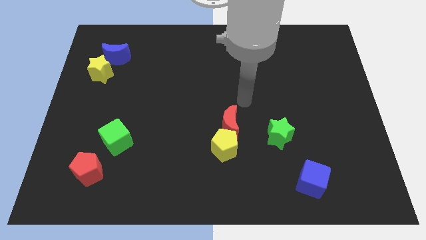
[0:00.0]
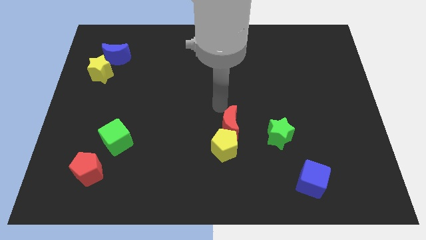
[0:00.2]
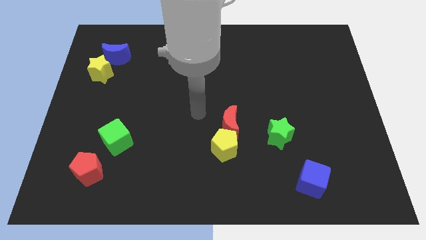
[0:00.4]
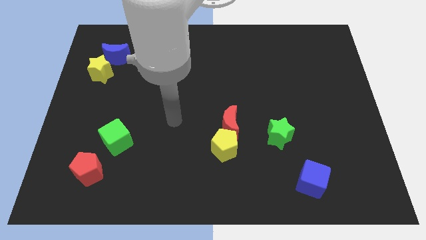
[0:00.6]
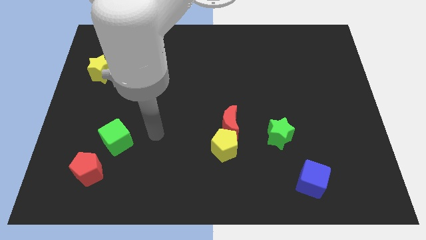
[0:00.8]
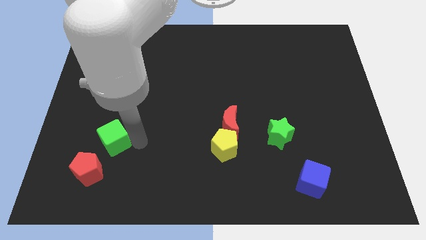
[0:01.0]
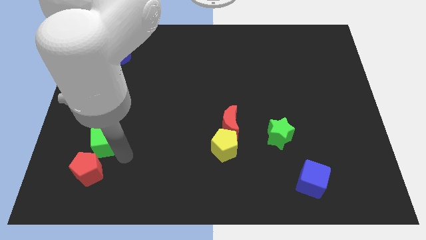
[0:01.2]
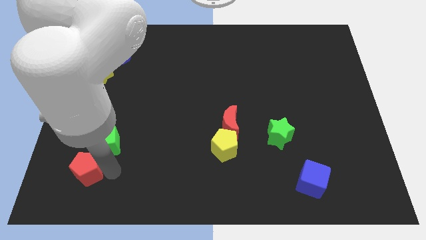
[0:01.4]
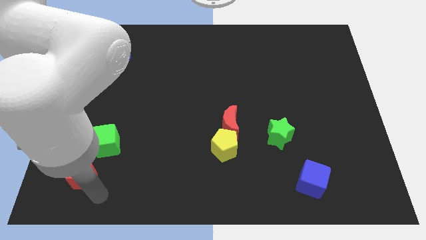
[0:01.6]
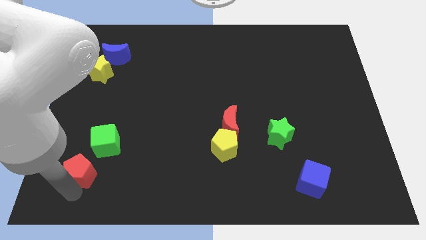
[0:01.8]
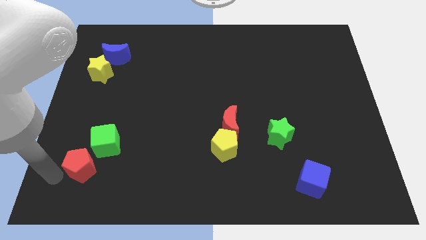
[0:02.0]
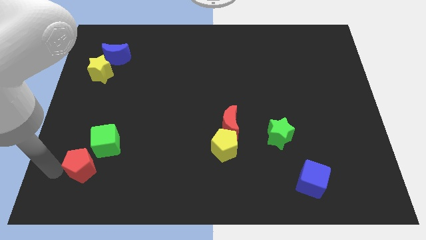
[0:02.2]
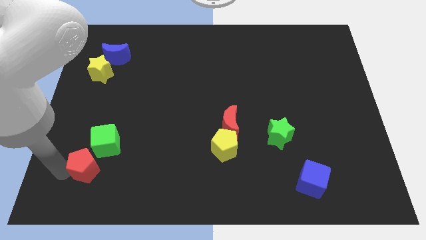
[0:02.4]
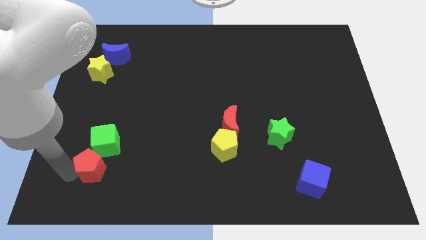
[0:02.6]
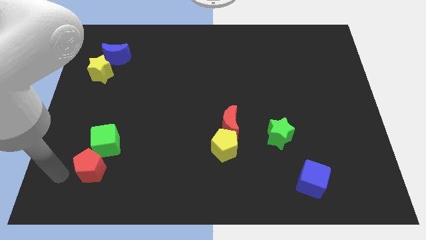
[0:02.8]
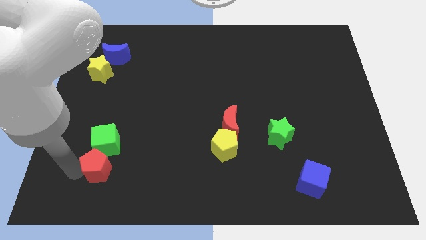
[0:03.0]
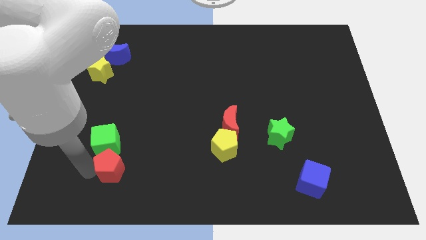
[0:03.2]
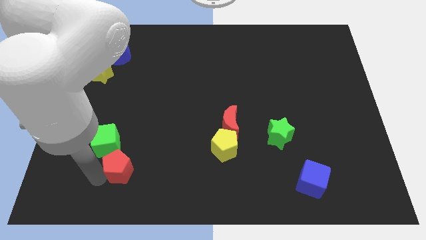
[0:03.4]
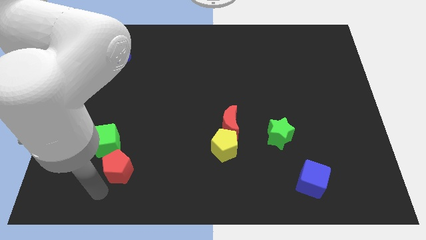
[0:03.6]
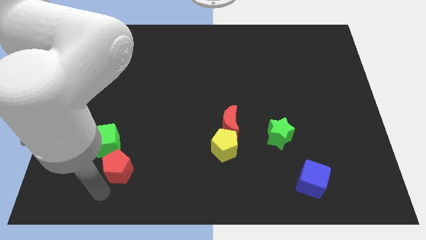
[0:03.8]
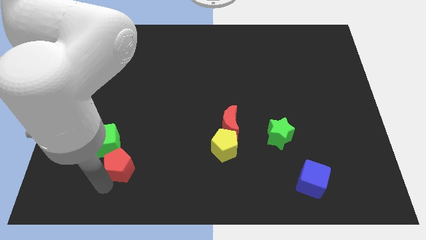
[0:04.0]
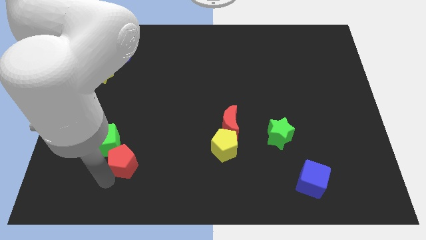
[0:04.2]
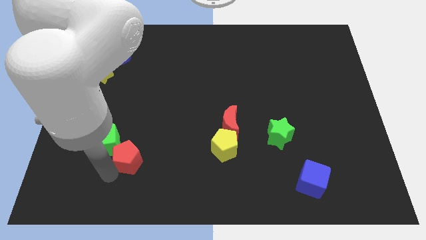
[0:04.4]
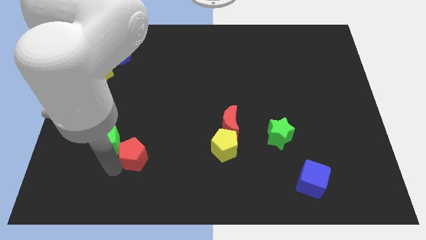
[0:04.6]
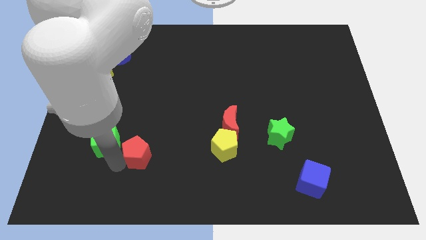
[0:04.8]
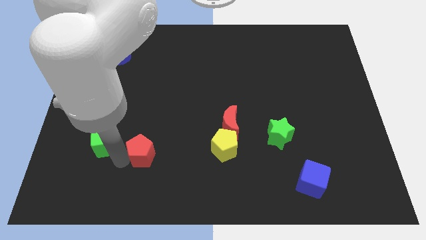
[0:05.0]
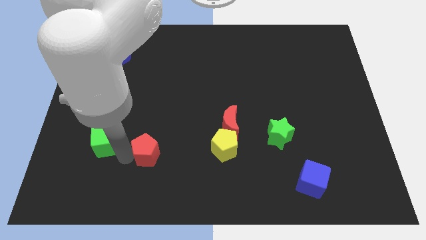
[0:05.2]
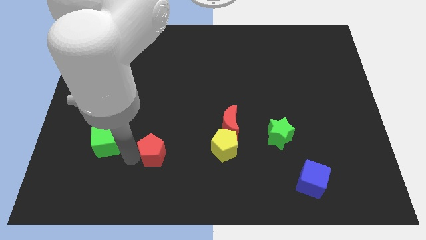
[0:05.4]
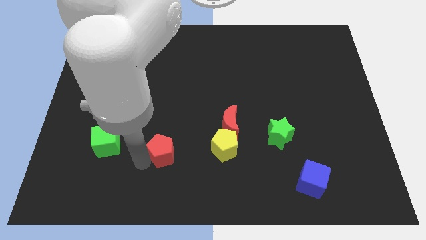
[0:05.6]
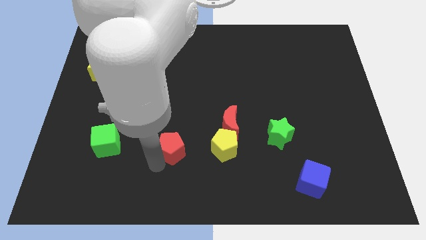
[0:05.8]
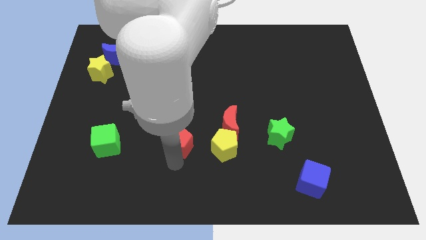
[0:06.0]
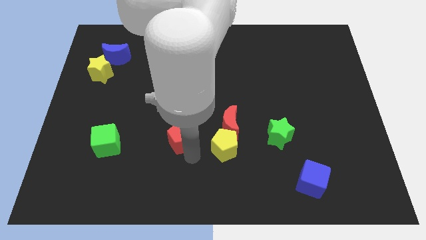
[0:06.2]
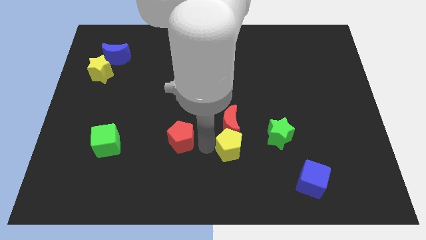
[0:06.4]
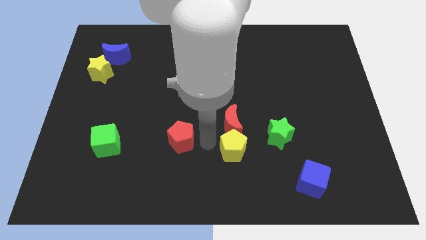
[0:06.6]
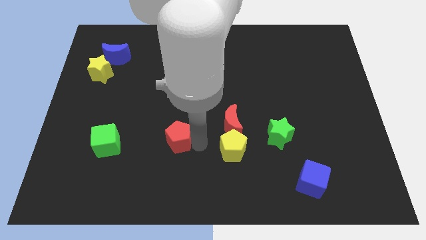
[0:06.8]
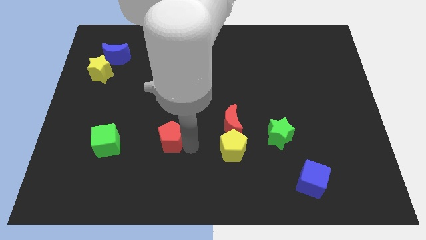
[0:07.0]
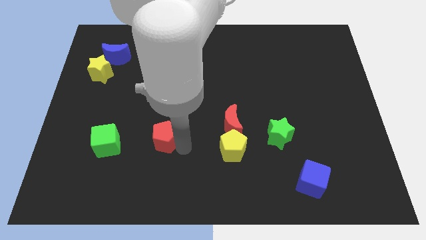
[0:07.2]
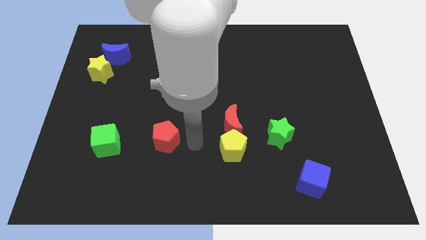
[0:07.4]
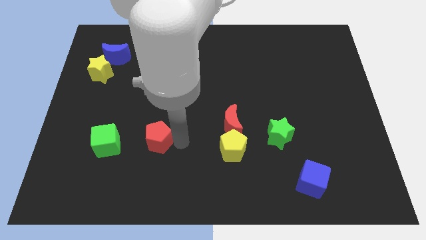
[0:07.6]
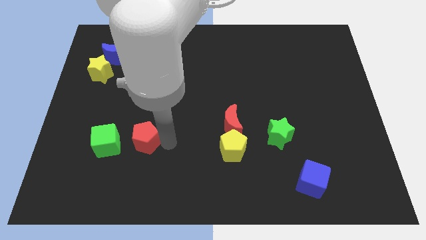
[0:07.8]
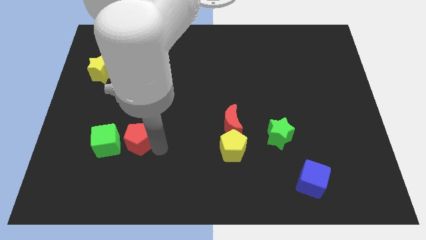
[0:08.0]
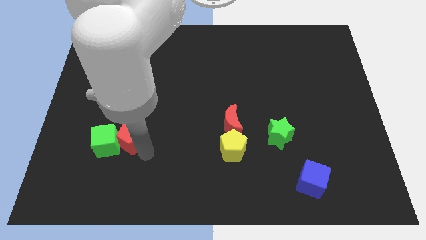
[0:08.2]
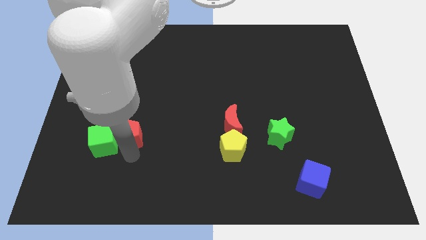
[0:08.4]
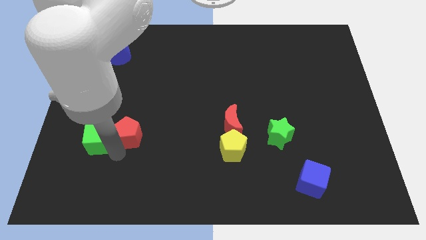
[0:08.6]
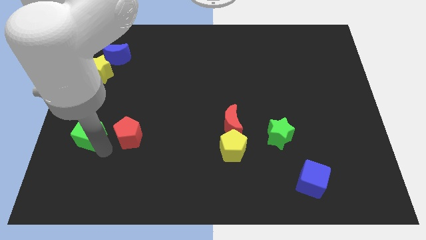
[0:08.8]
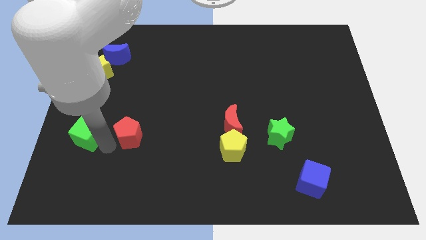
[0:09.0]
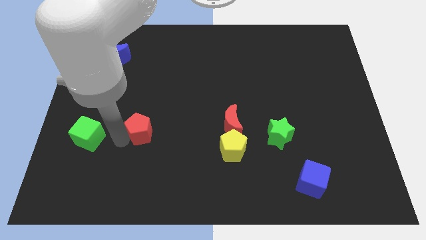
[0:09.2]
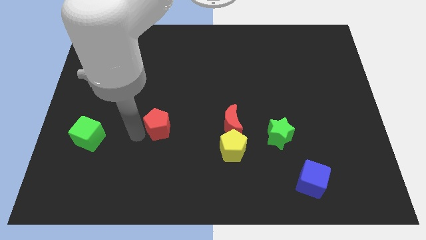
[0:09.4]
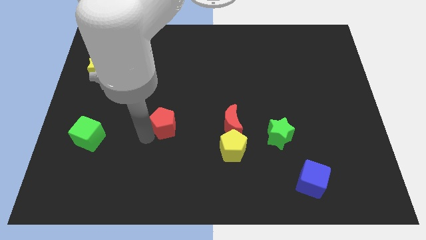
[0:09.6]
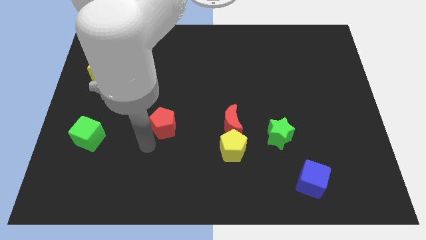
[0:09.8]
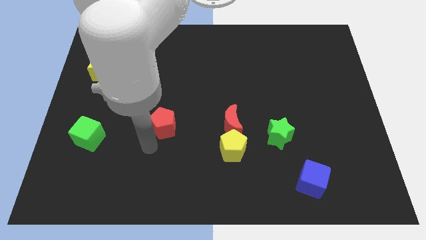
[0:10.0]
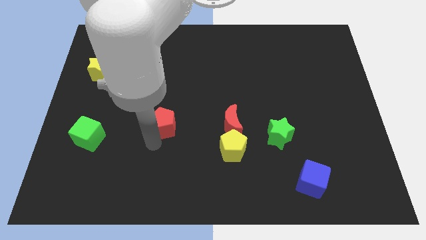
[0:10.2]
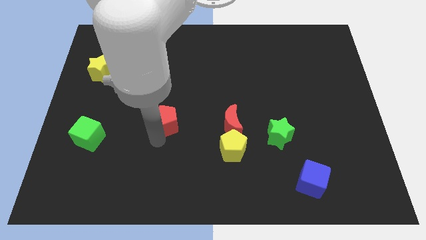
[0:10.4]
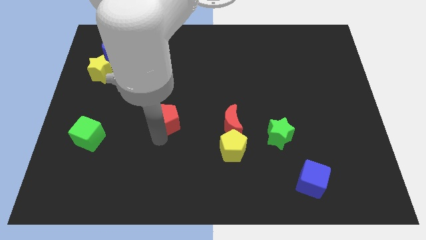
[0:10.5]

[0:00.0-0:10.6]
move the red pentagon upwards and right

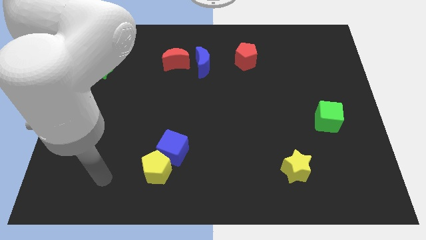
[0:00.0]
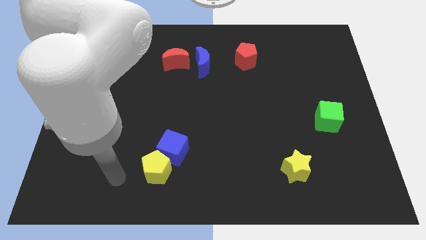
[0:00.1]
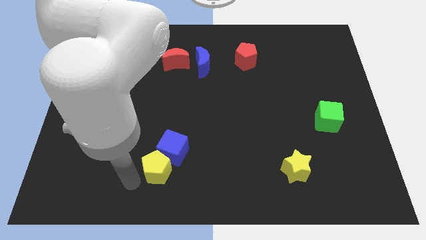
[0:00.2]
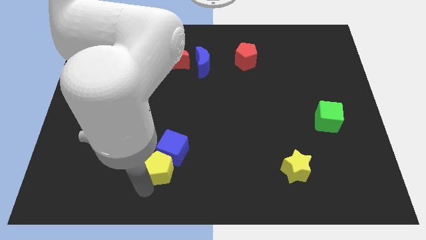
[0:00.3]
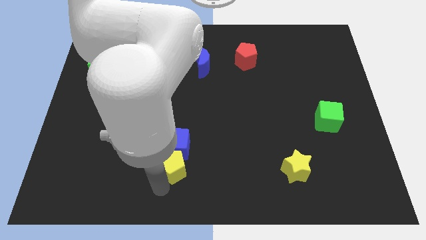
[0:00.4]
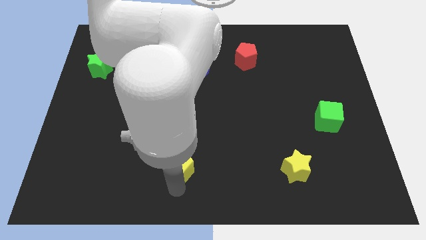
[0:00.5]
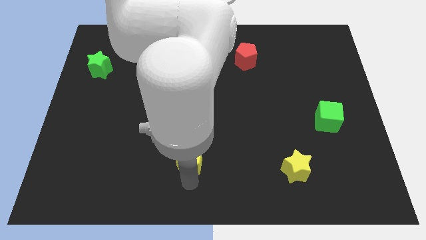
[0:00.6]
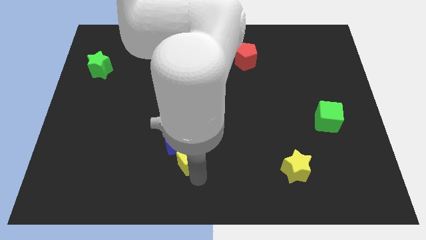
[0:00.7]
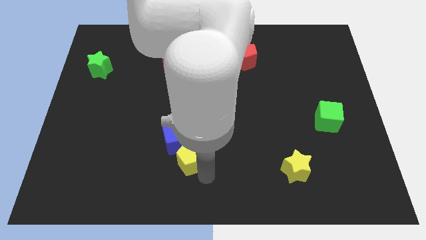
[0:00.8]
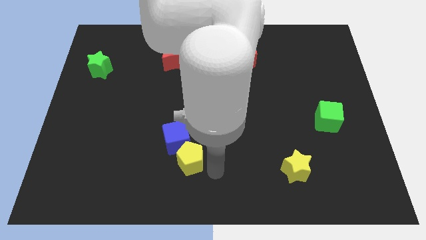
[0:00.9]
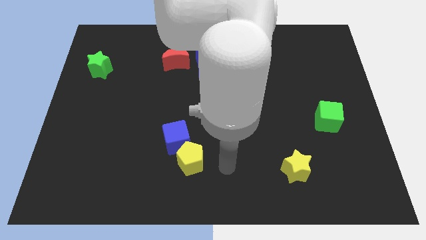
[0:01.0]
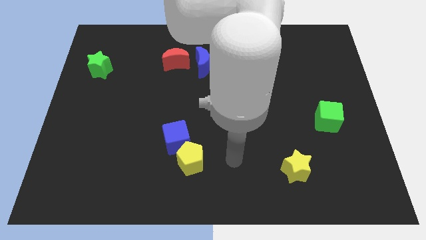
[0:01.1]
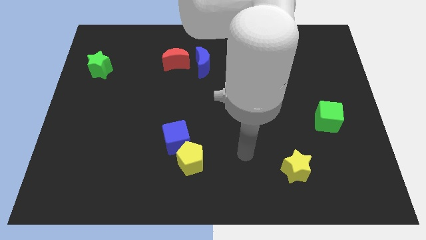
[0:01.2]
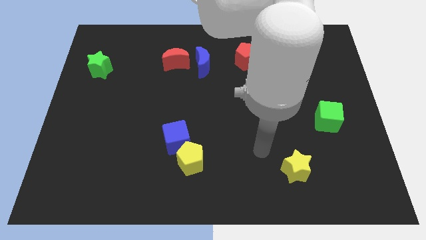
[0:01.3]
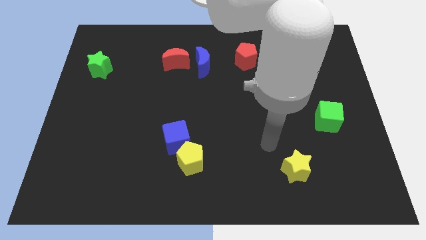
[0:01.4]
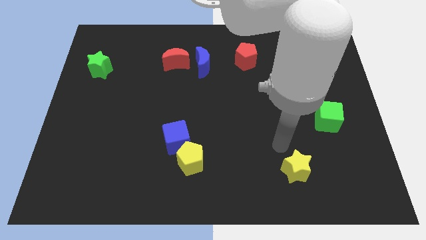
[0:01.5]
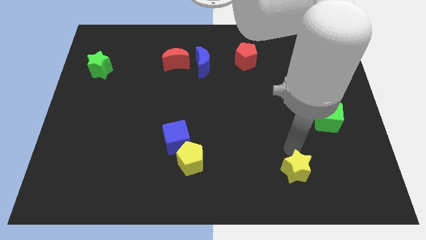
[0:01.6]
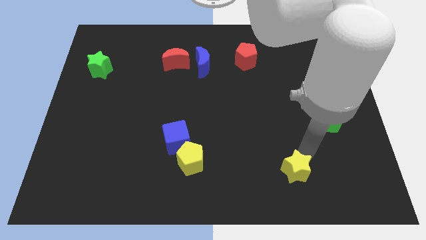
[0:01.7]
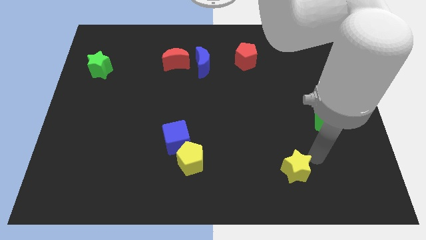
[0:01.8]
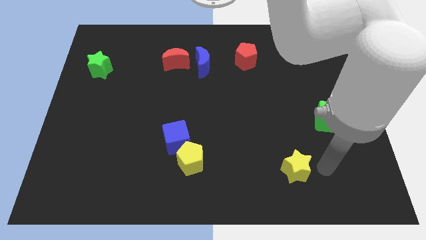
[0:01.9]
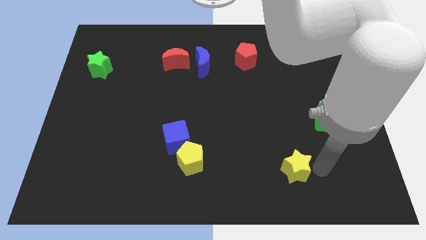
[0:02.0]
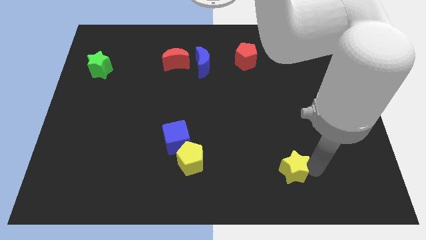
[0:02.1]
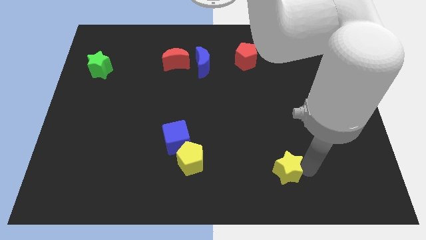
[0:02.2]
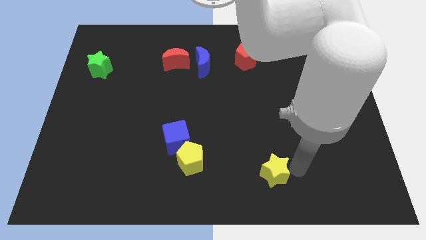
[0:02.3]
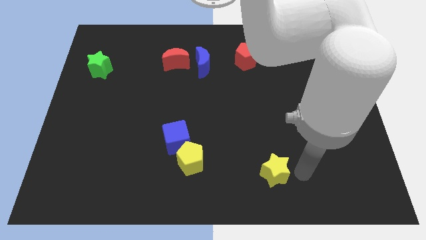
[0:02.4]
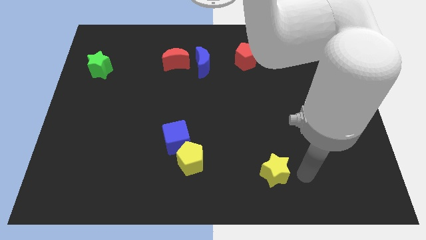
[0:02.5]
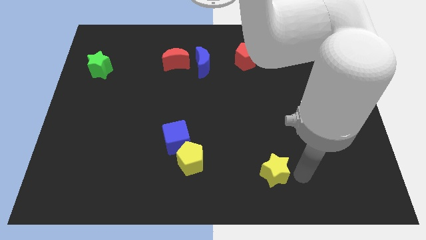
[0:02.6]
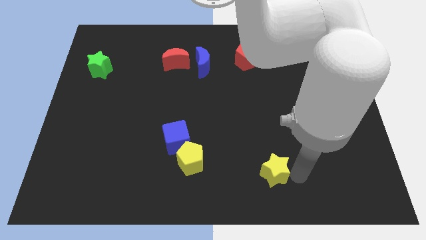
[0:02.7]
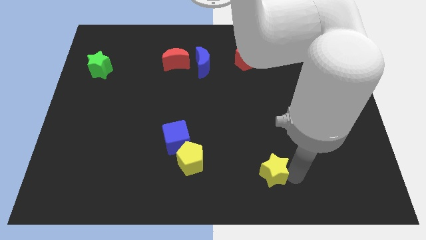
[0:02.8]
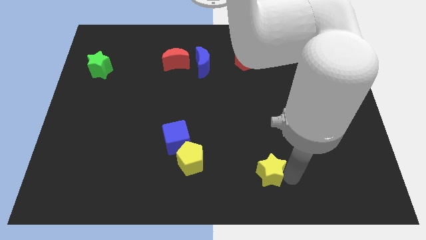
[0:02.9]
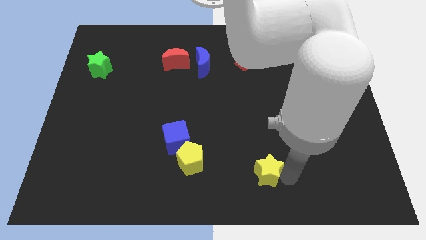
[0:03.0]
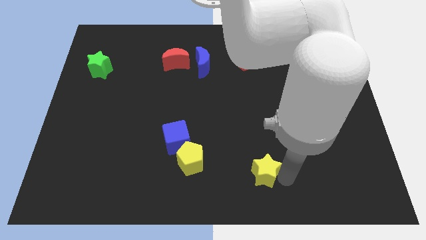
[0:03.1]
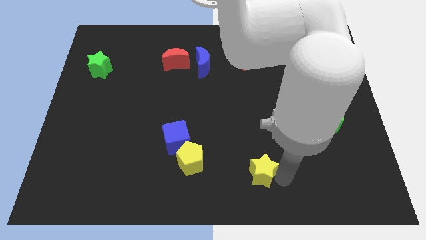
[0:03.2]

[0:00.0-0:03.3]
slightly move the yellow star left

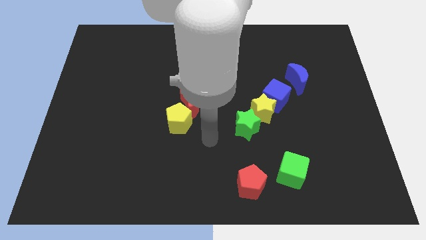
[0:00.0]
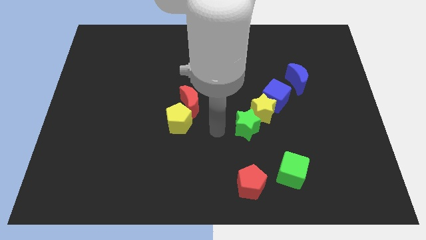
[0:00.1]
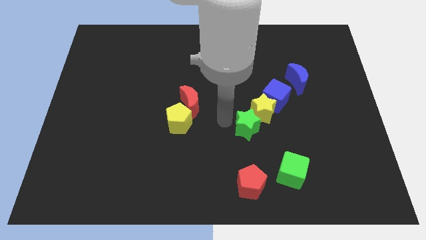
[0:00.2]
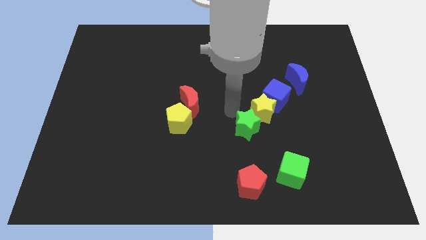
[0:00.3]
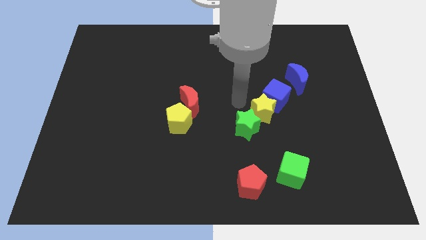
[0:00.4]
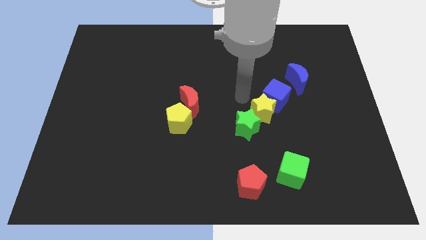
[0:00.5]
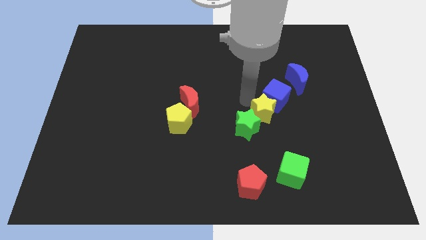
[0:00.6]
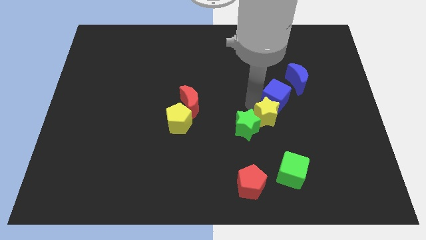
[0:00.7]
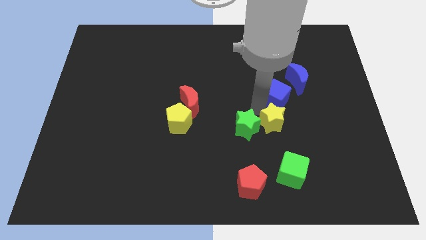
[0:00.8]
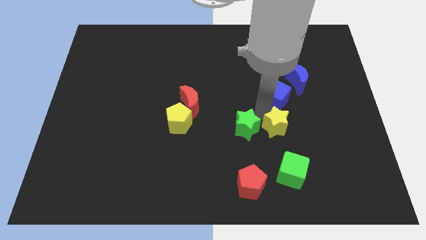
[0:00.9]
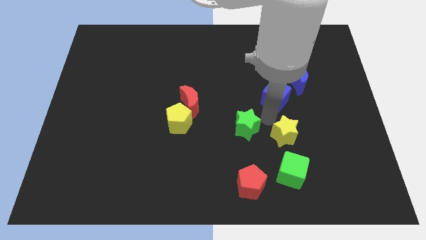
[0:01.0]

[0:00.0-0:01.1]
slide the yellow star downwards and right somewhat
